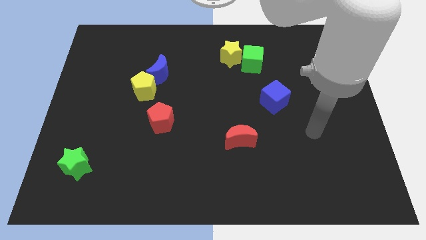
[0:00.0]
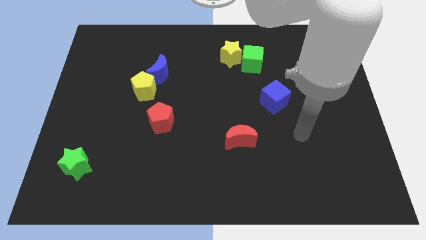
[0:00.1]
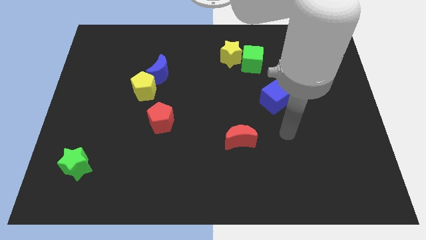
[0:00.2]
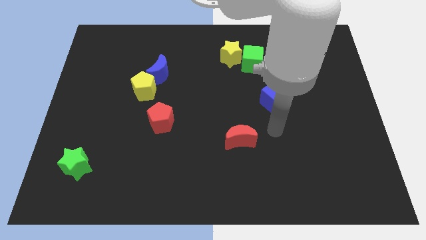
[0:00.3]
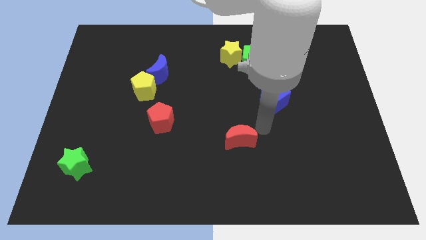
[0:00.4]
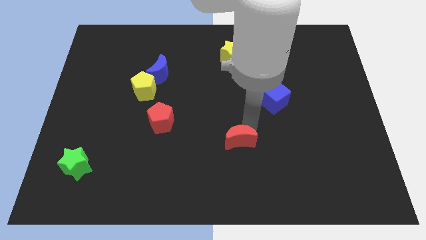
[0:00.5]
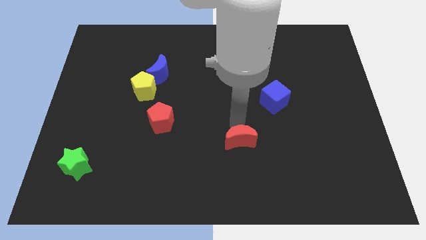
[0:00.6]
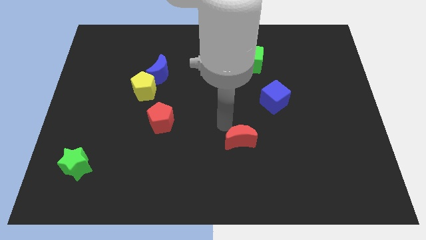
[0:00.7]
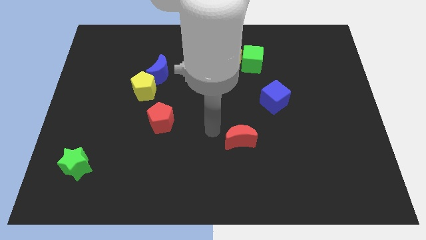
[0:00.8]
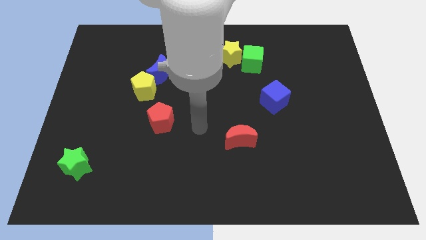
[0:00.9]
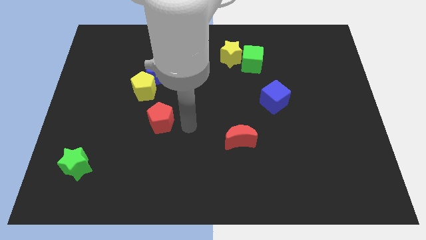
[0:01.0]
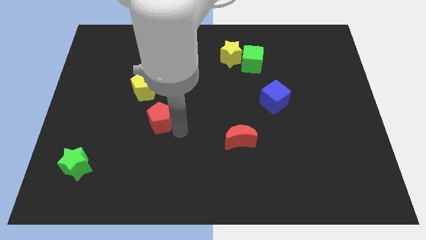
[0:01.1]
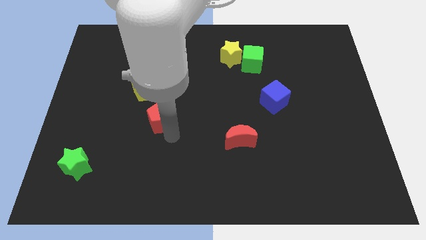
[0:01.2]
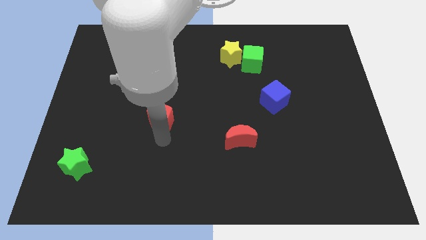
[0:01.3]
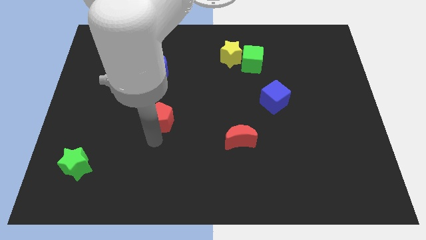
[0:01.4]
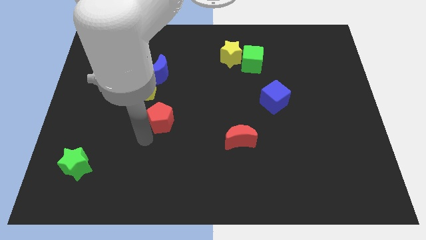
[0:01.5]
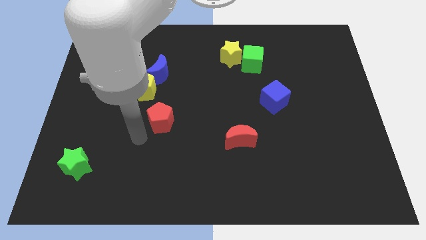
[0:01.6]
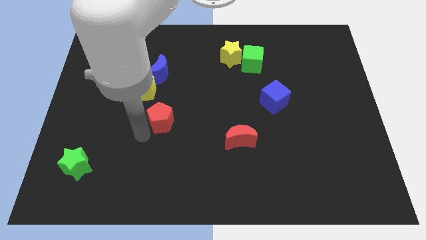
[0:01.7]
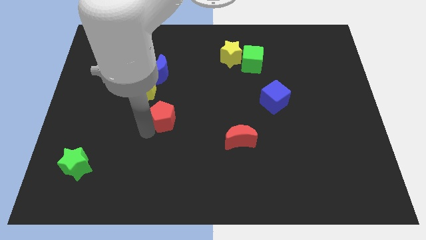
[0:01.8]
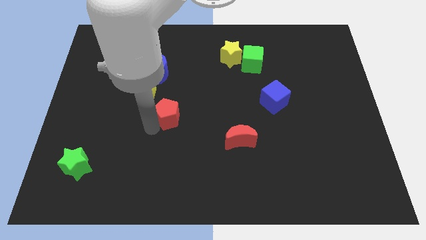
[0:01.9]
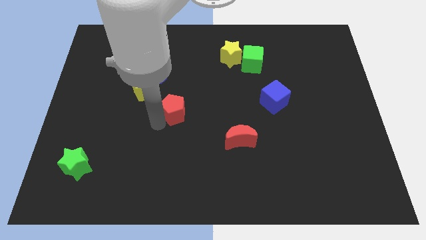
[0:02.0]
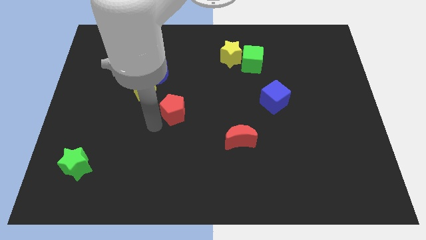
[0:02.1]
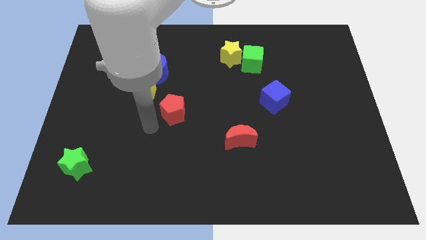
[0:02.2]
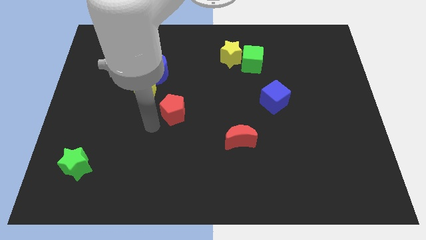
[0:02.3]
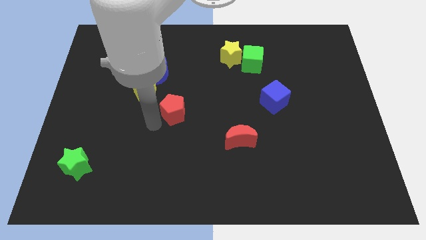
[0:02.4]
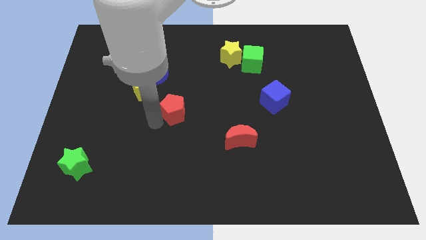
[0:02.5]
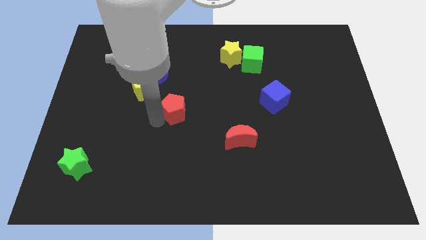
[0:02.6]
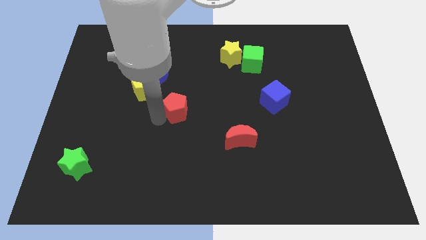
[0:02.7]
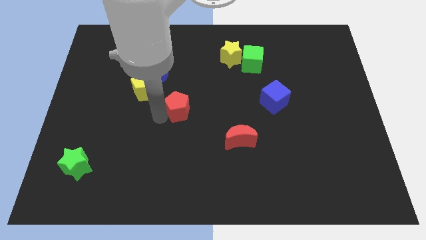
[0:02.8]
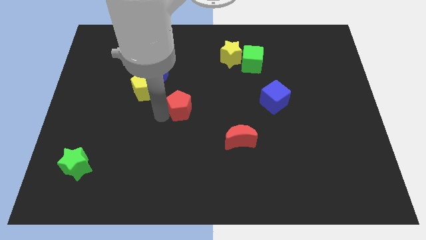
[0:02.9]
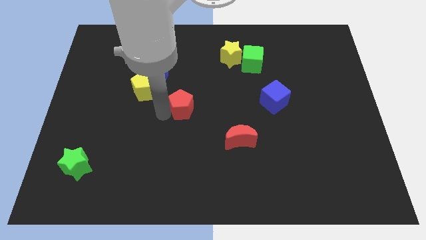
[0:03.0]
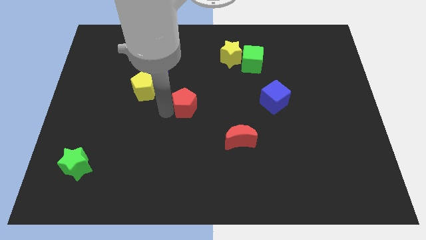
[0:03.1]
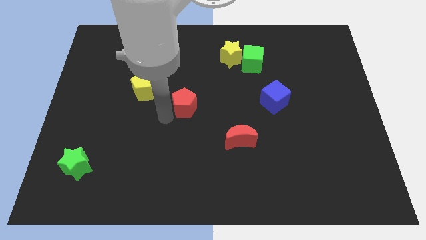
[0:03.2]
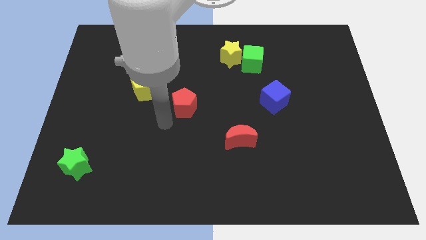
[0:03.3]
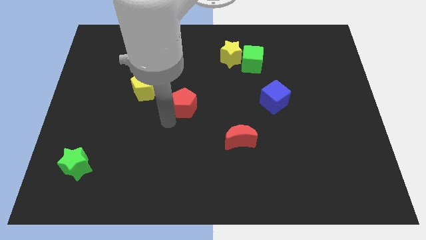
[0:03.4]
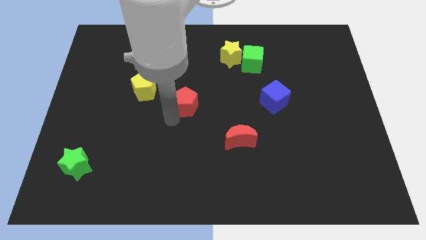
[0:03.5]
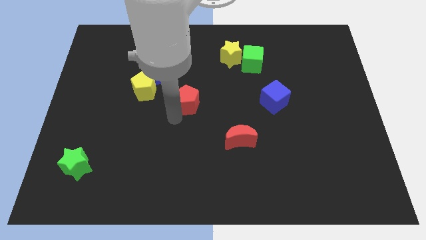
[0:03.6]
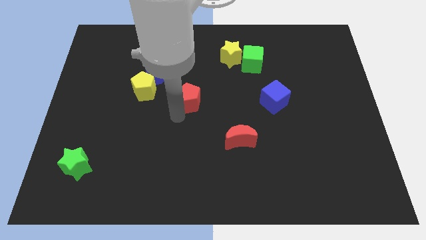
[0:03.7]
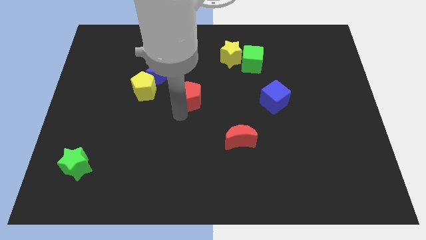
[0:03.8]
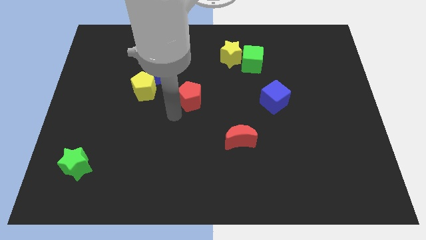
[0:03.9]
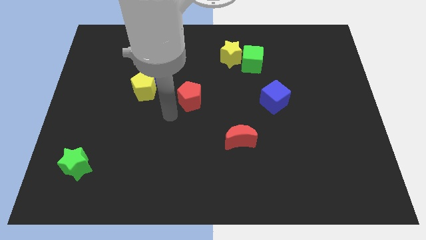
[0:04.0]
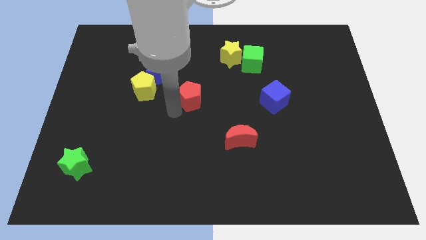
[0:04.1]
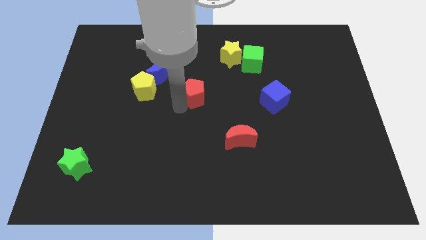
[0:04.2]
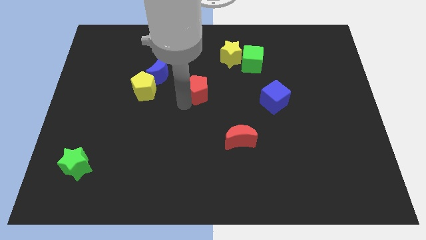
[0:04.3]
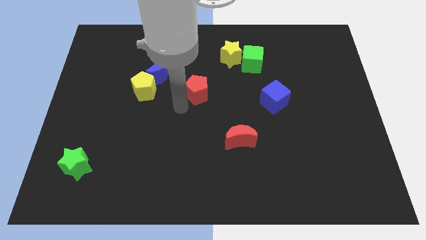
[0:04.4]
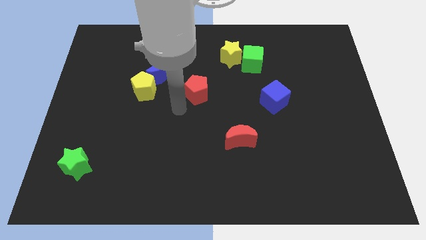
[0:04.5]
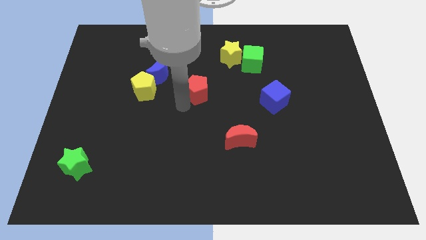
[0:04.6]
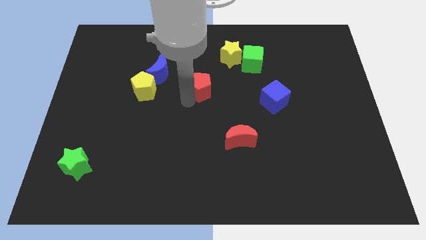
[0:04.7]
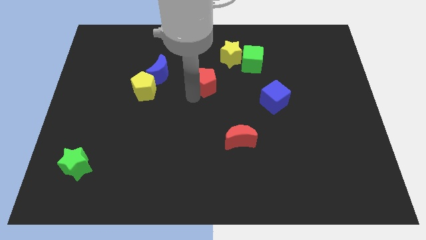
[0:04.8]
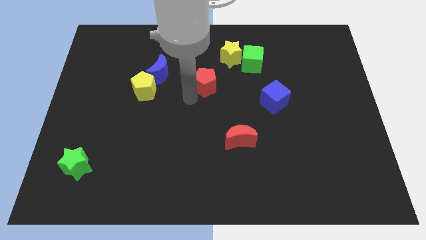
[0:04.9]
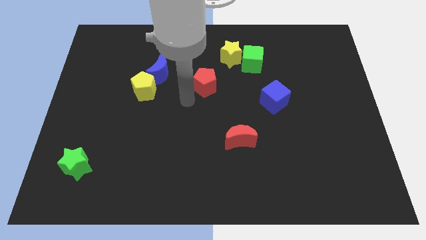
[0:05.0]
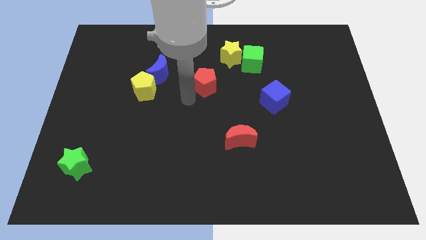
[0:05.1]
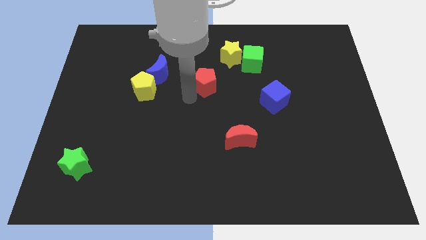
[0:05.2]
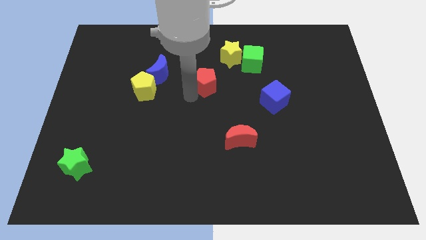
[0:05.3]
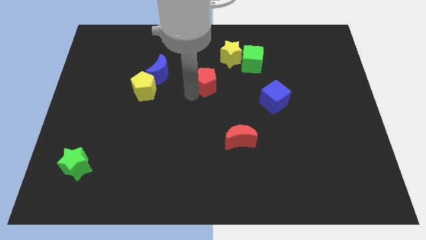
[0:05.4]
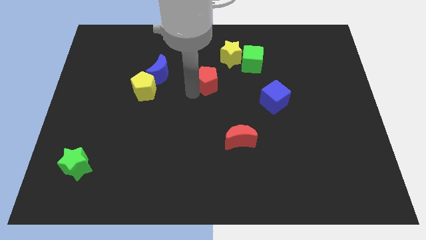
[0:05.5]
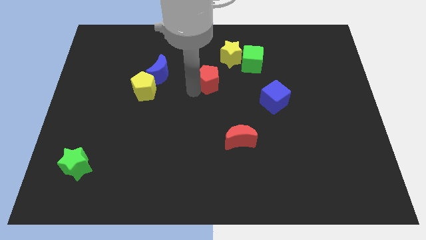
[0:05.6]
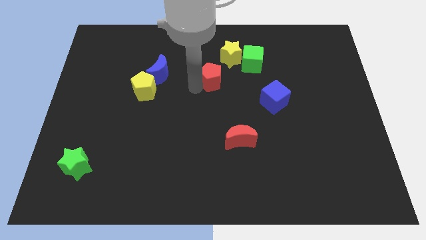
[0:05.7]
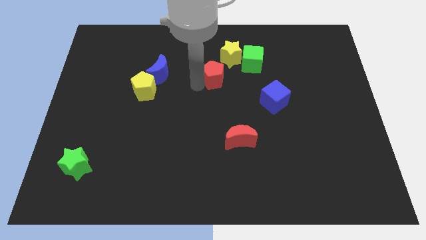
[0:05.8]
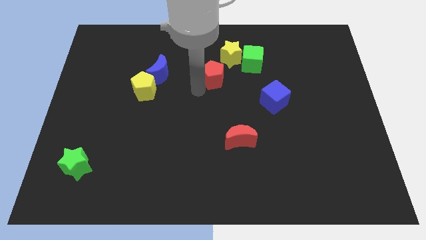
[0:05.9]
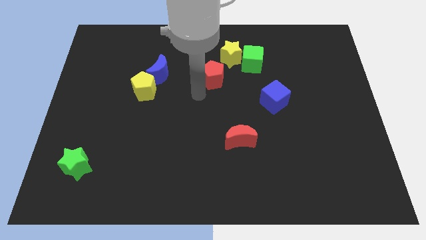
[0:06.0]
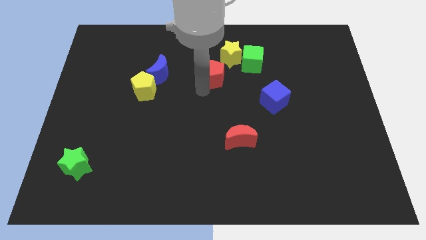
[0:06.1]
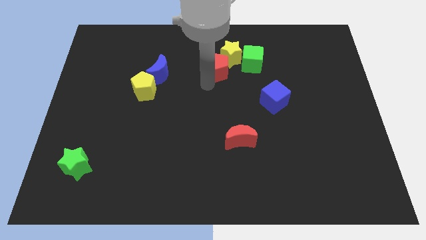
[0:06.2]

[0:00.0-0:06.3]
put the red pentagon close to the yellow star
